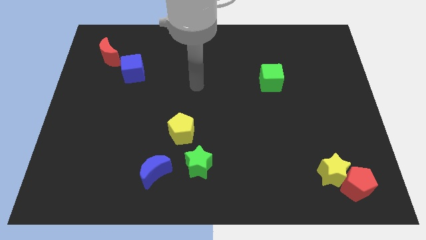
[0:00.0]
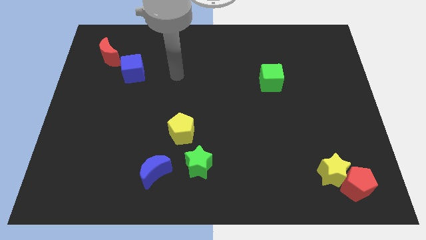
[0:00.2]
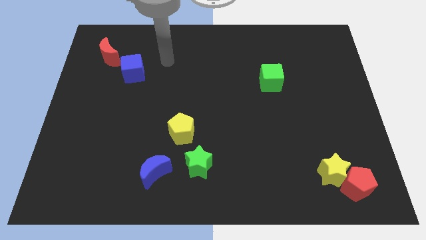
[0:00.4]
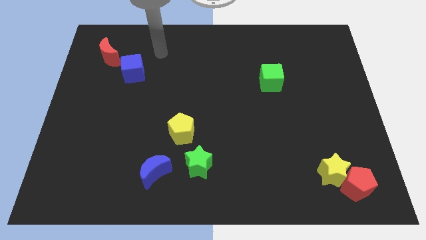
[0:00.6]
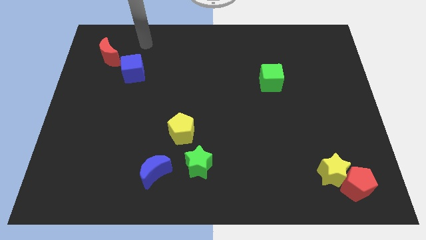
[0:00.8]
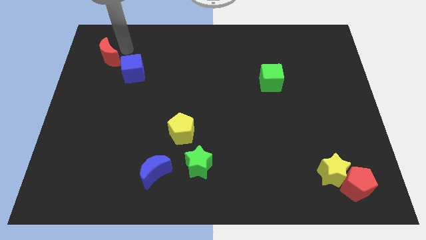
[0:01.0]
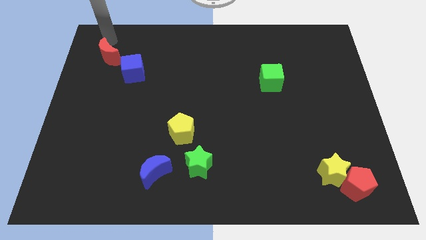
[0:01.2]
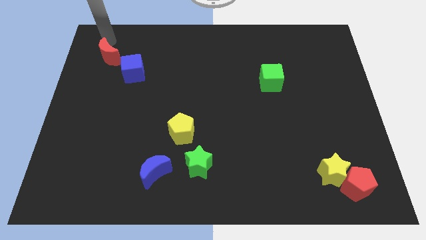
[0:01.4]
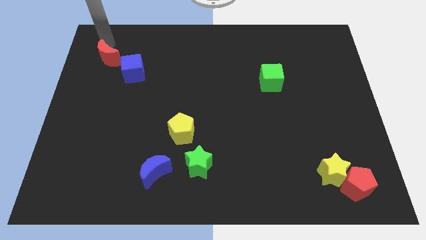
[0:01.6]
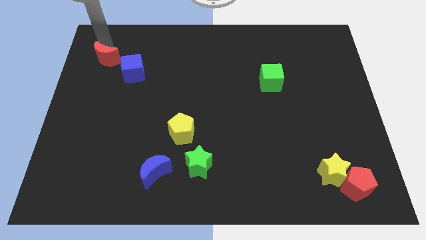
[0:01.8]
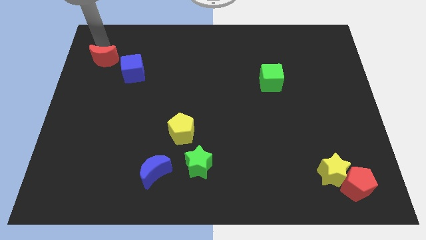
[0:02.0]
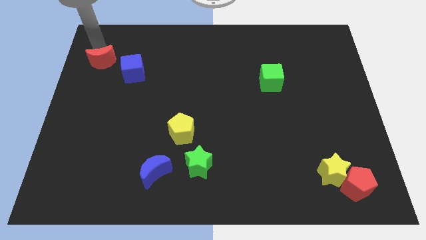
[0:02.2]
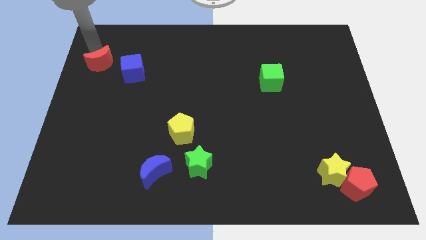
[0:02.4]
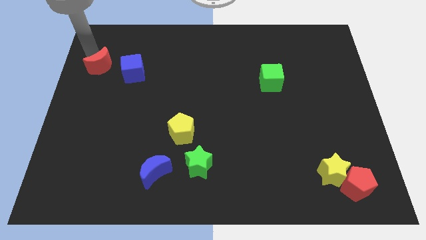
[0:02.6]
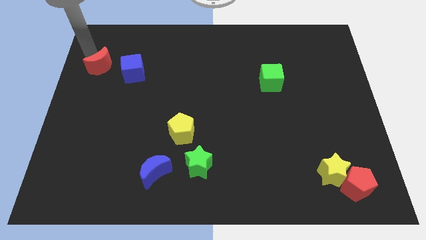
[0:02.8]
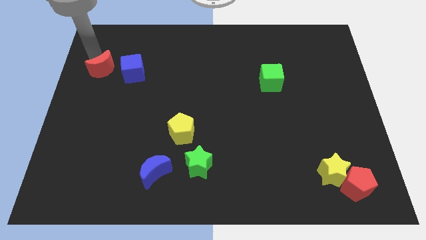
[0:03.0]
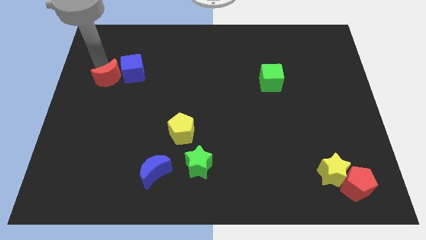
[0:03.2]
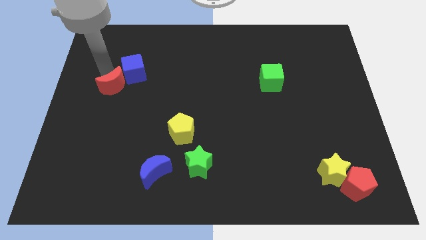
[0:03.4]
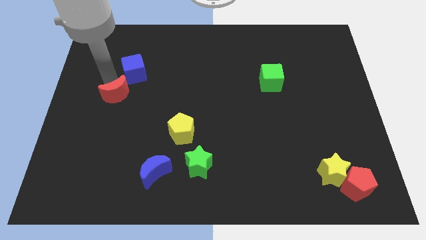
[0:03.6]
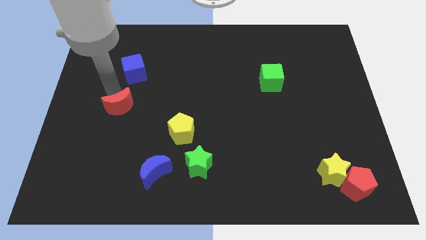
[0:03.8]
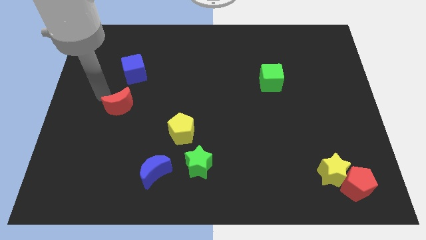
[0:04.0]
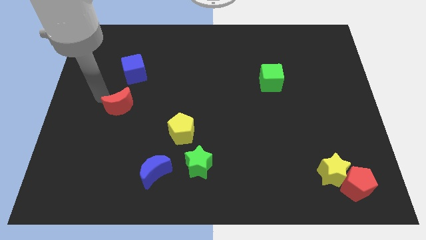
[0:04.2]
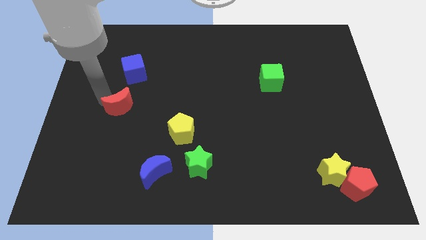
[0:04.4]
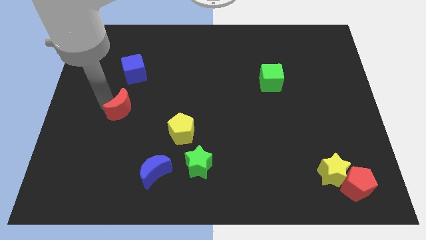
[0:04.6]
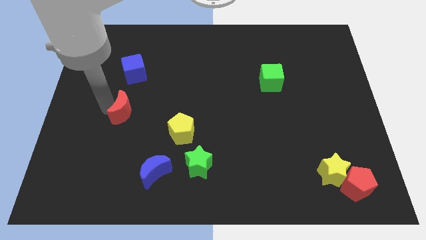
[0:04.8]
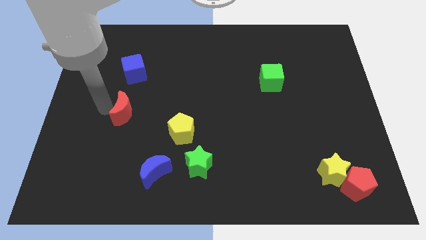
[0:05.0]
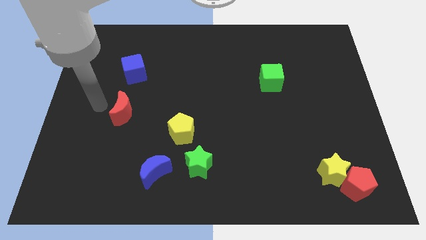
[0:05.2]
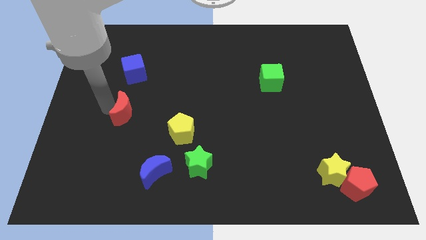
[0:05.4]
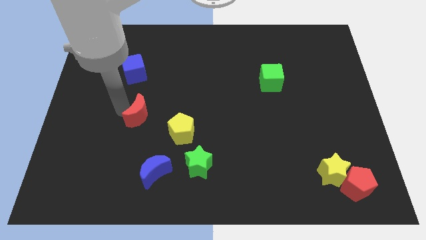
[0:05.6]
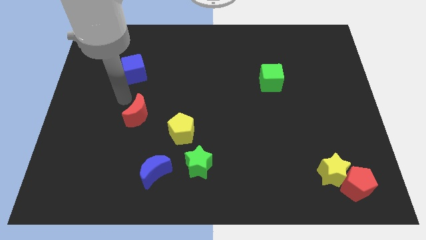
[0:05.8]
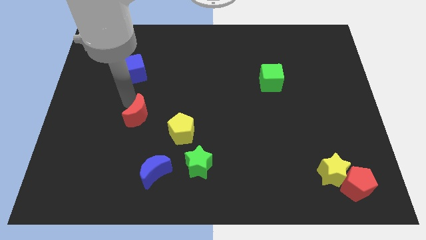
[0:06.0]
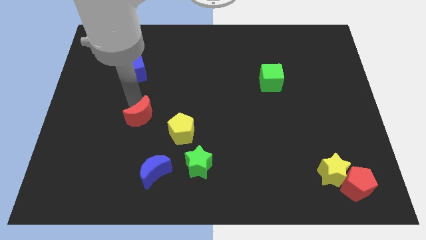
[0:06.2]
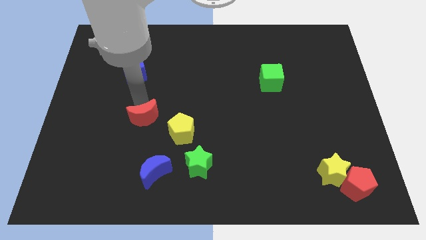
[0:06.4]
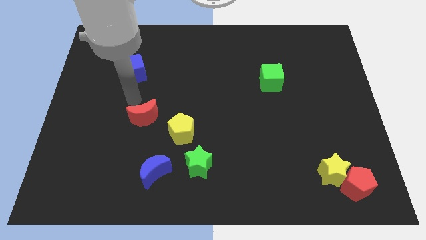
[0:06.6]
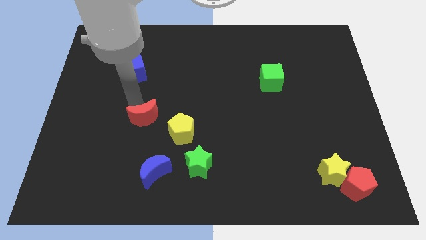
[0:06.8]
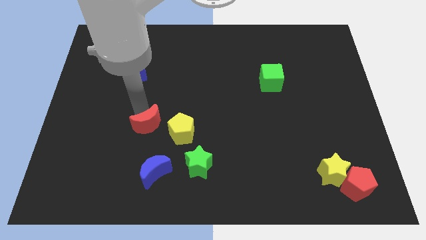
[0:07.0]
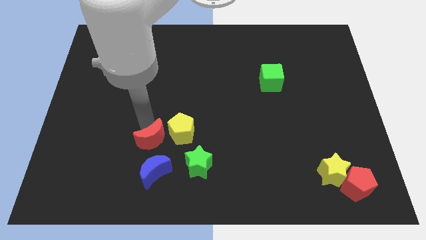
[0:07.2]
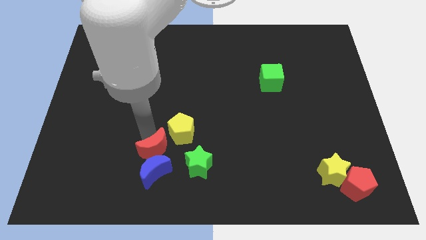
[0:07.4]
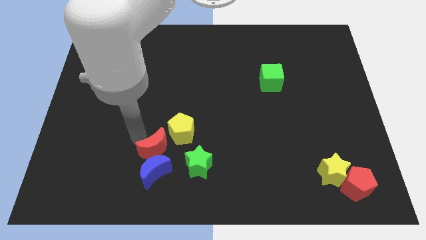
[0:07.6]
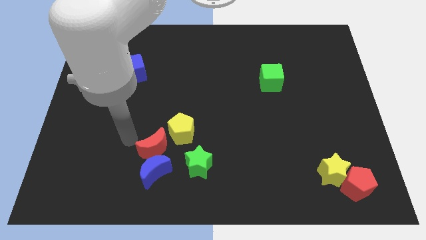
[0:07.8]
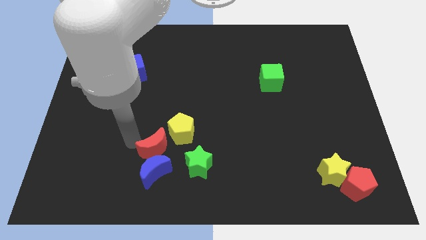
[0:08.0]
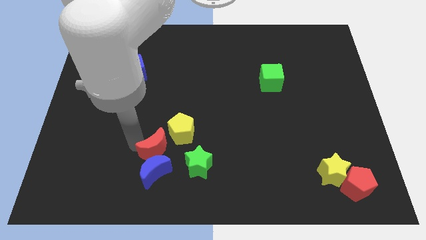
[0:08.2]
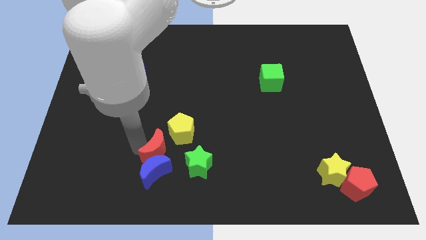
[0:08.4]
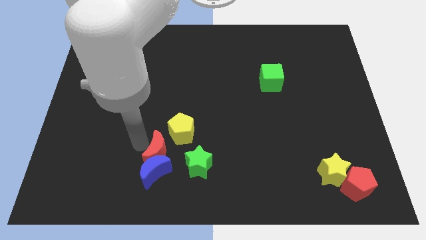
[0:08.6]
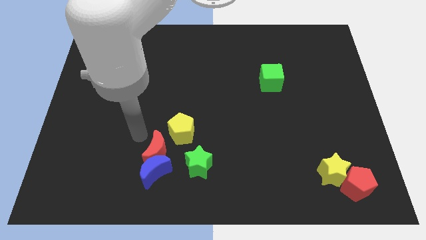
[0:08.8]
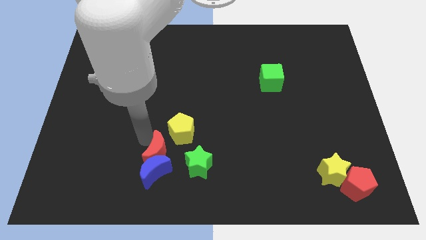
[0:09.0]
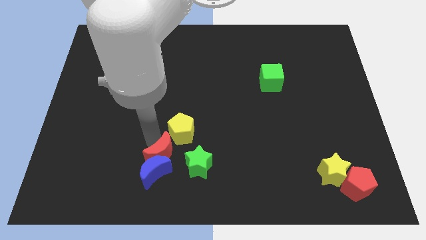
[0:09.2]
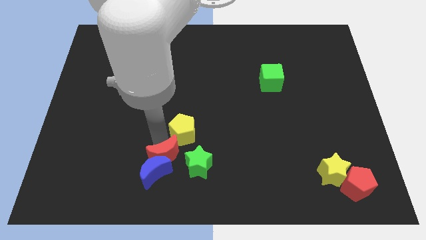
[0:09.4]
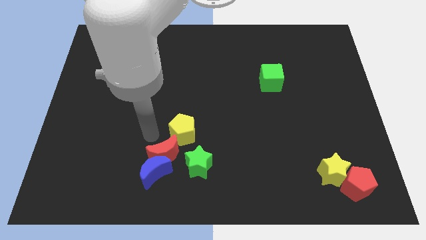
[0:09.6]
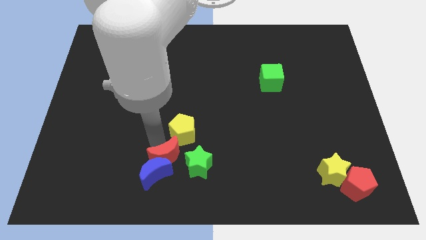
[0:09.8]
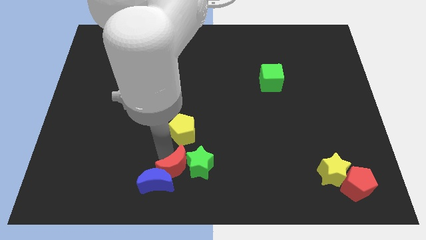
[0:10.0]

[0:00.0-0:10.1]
push the red moon to the bottom side

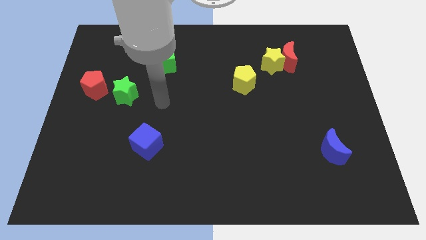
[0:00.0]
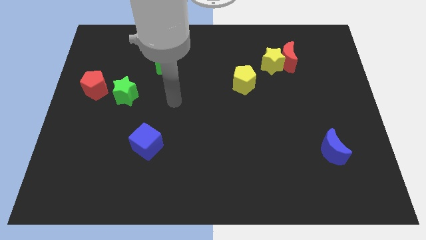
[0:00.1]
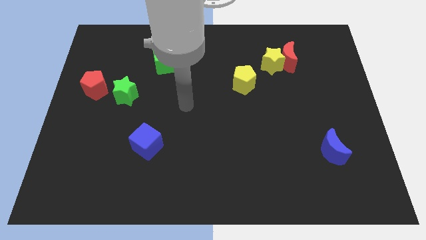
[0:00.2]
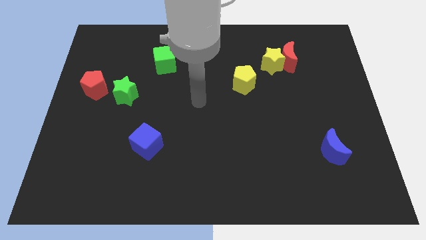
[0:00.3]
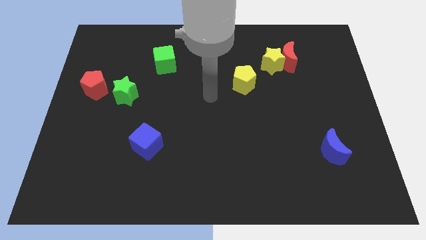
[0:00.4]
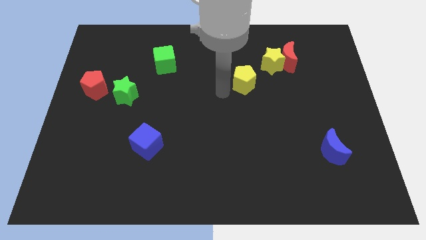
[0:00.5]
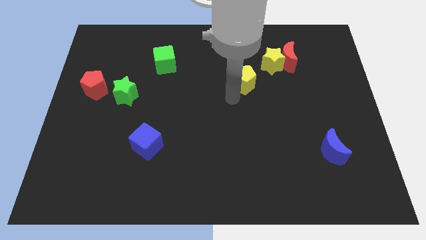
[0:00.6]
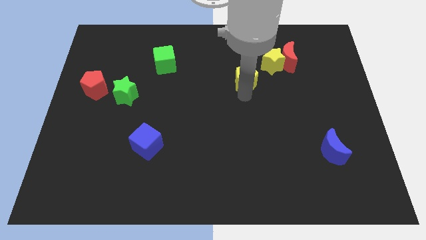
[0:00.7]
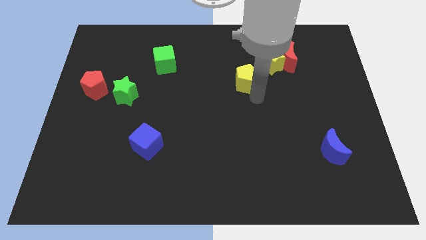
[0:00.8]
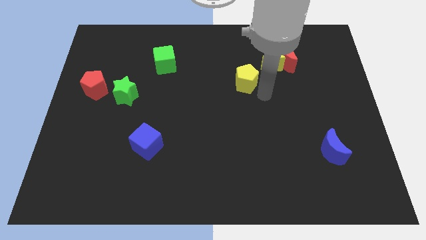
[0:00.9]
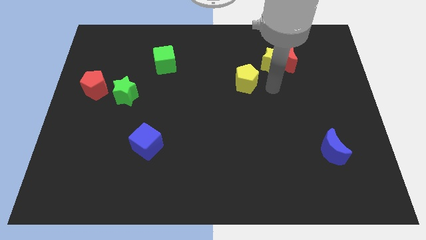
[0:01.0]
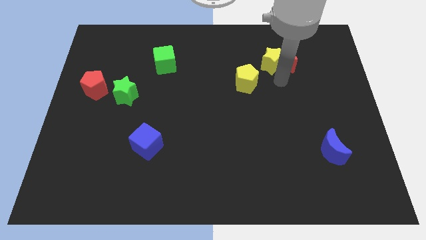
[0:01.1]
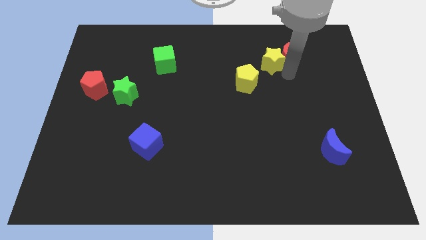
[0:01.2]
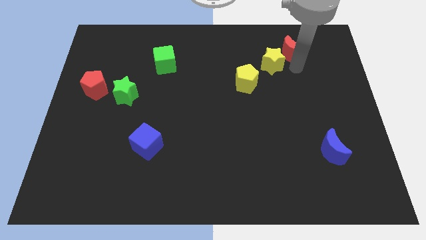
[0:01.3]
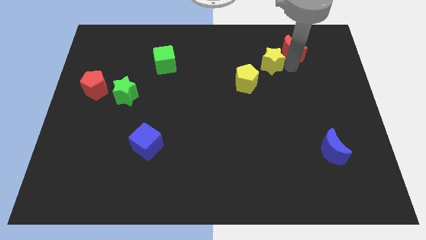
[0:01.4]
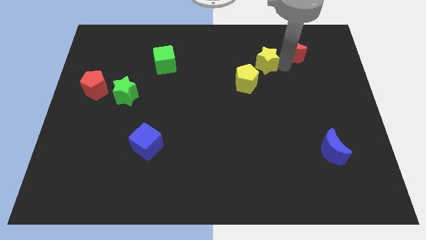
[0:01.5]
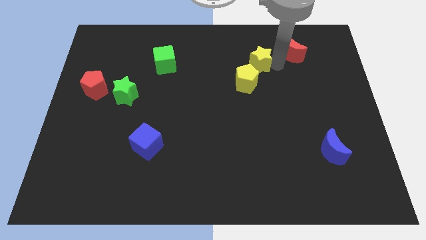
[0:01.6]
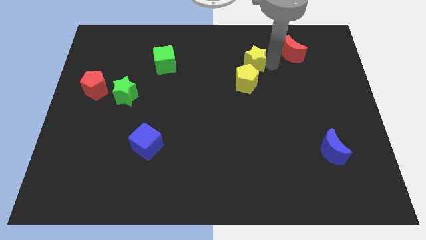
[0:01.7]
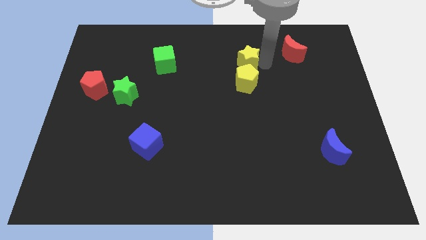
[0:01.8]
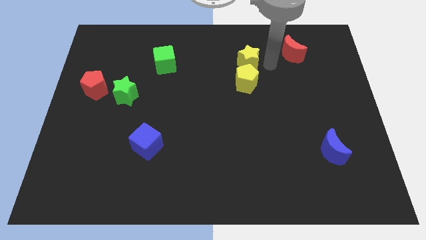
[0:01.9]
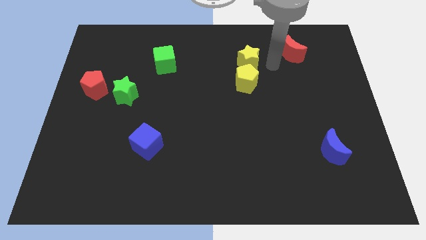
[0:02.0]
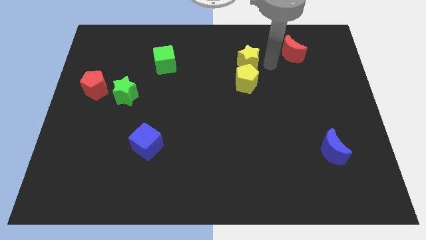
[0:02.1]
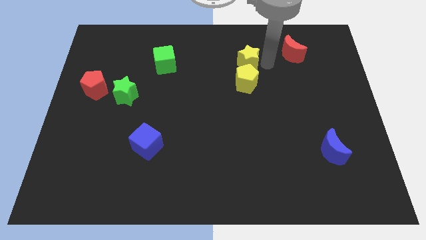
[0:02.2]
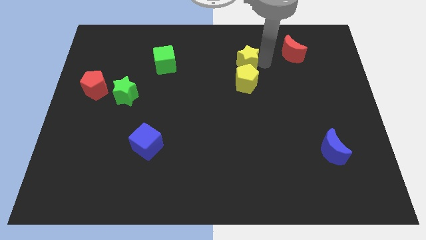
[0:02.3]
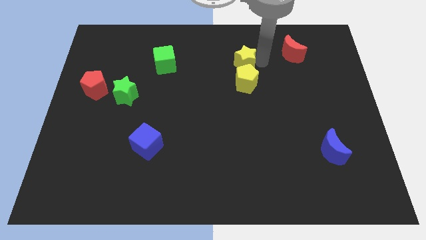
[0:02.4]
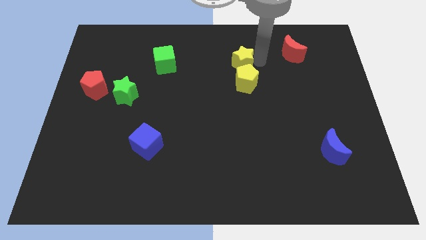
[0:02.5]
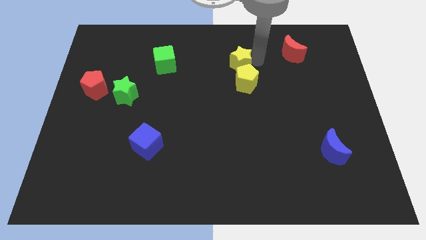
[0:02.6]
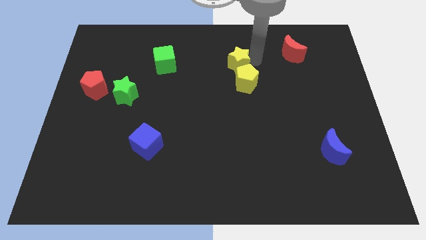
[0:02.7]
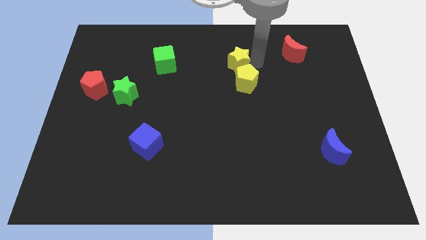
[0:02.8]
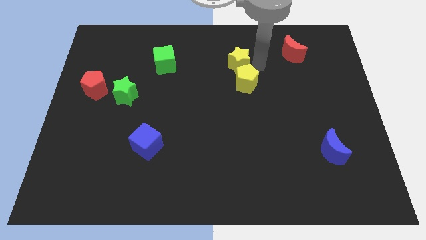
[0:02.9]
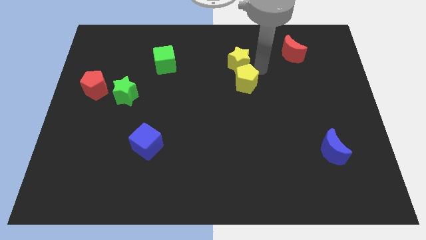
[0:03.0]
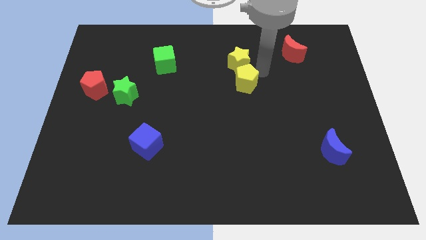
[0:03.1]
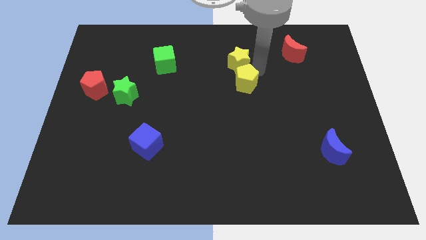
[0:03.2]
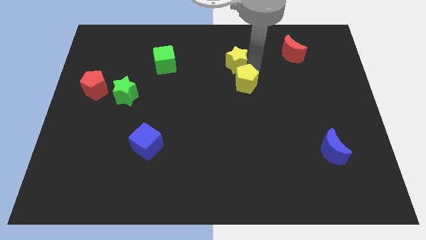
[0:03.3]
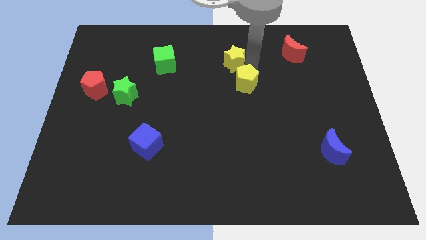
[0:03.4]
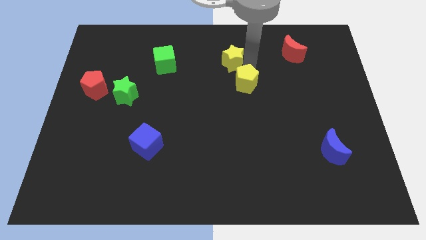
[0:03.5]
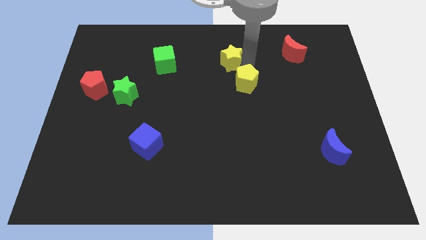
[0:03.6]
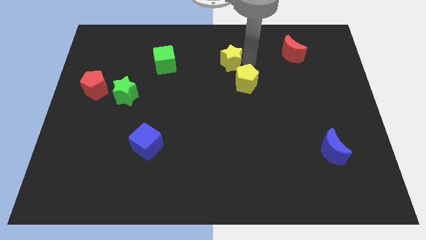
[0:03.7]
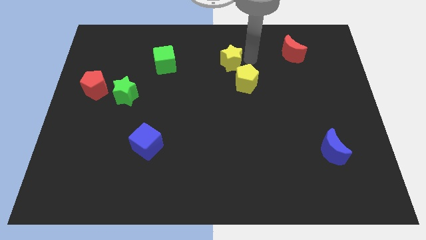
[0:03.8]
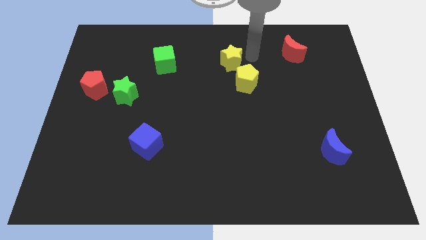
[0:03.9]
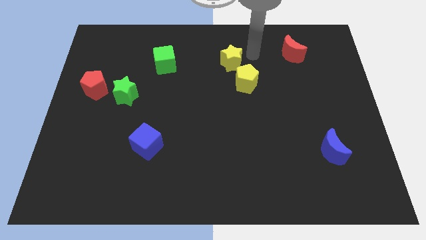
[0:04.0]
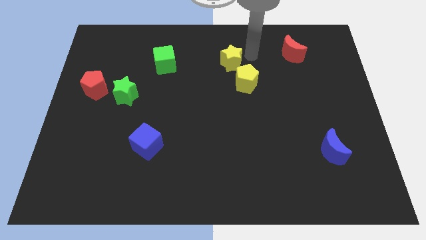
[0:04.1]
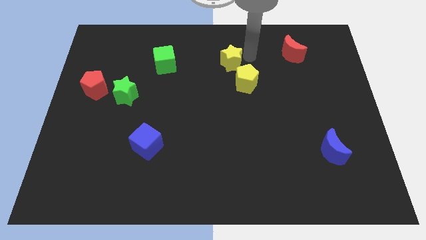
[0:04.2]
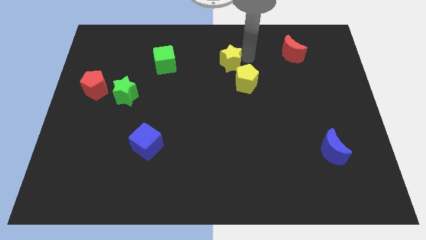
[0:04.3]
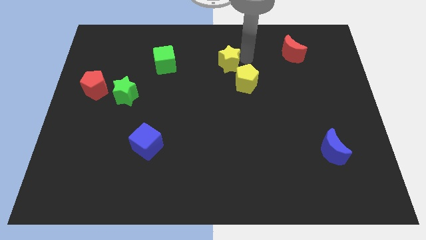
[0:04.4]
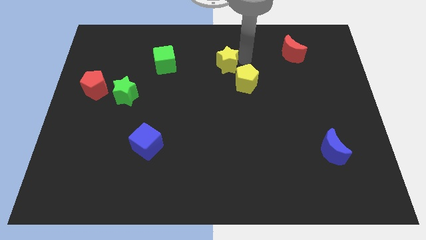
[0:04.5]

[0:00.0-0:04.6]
slide the yellow star to the center of the board
